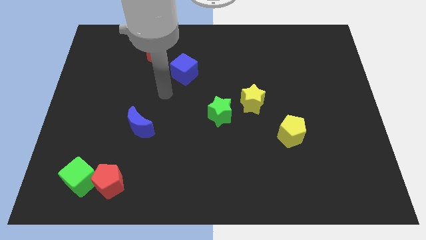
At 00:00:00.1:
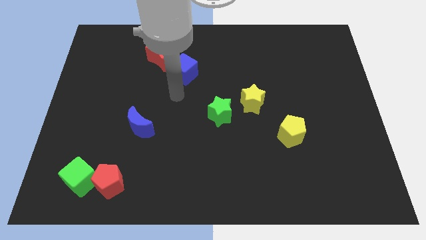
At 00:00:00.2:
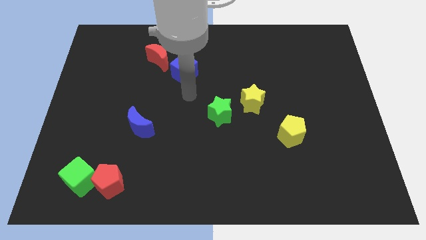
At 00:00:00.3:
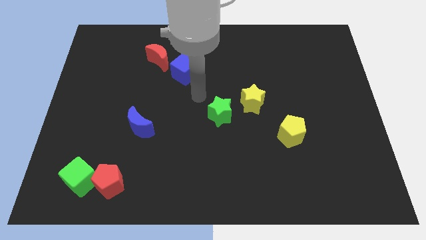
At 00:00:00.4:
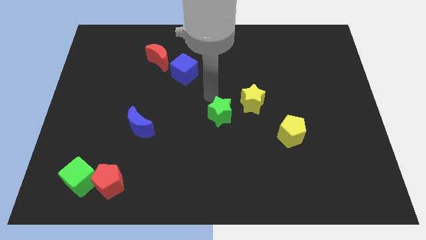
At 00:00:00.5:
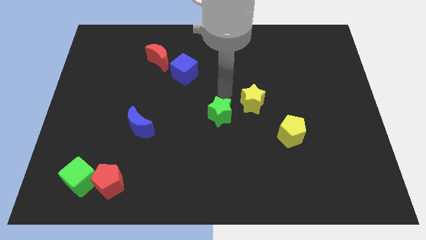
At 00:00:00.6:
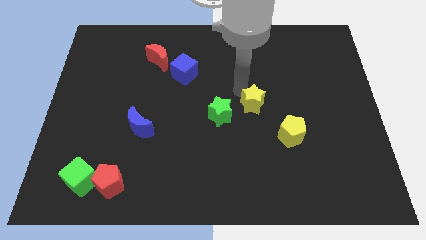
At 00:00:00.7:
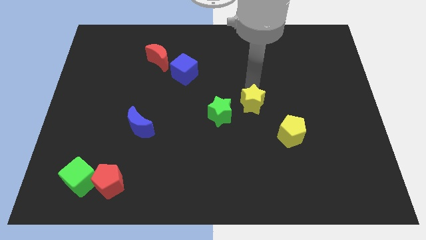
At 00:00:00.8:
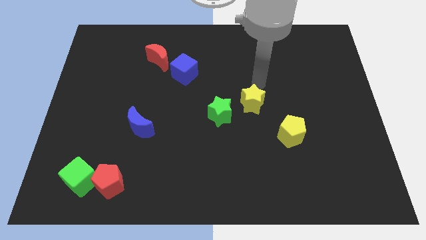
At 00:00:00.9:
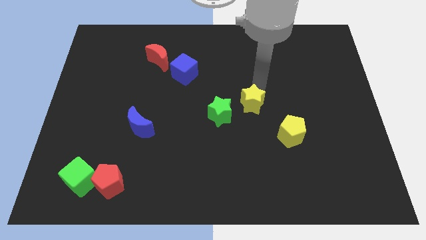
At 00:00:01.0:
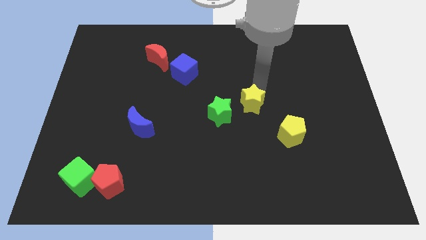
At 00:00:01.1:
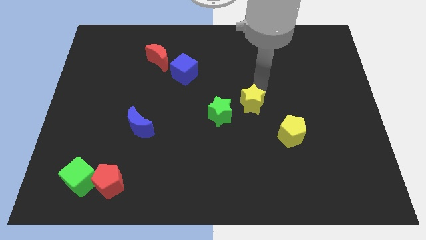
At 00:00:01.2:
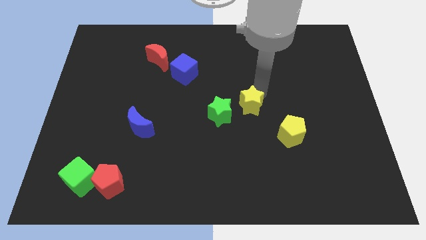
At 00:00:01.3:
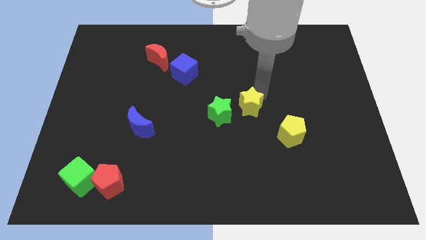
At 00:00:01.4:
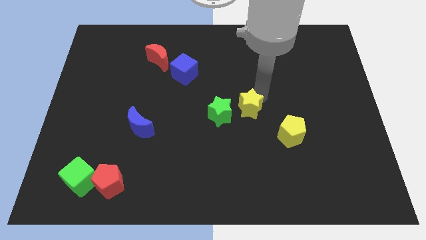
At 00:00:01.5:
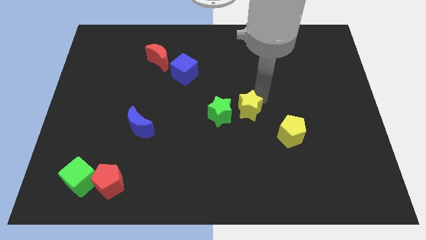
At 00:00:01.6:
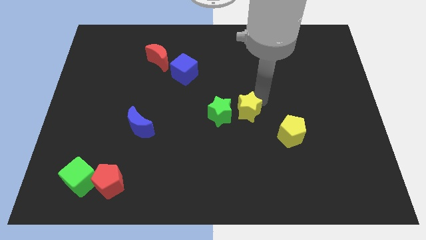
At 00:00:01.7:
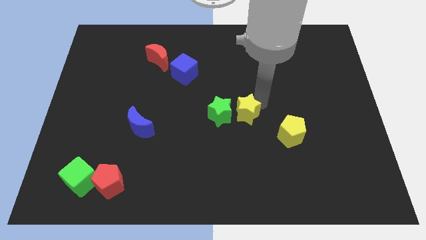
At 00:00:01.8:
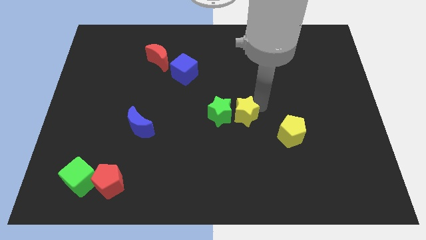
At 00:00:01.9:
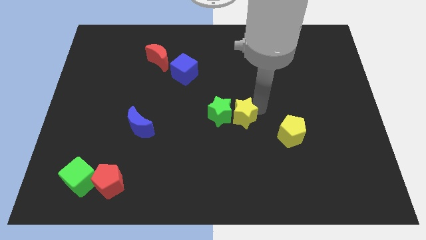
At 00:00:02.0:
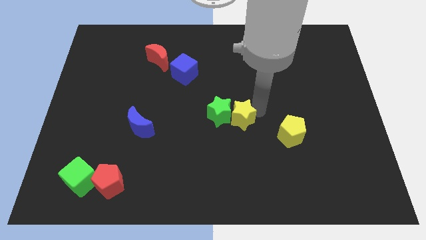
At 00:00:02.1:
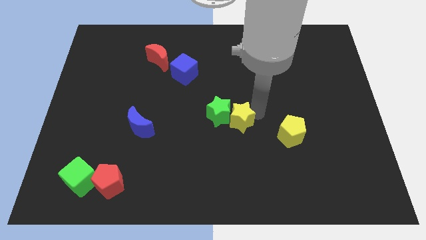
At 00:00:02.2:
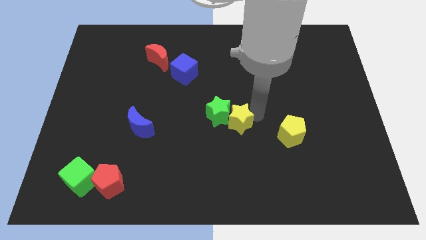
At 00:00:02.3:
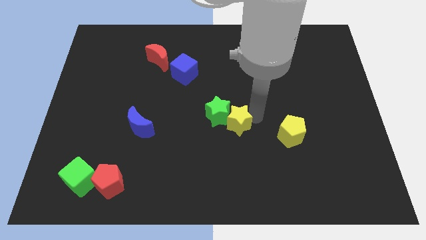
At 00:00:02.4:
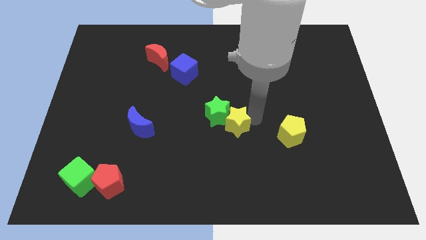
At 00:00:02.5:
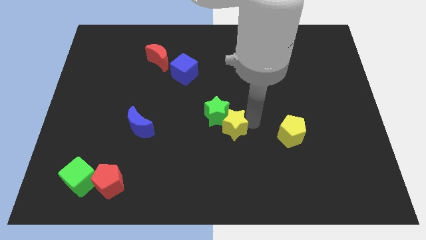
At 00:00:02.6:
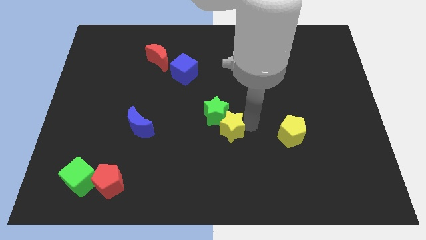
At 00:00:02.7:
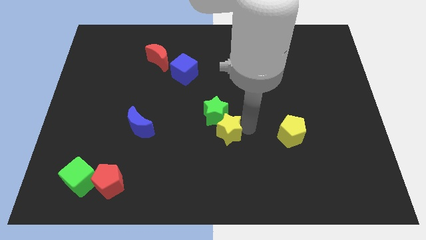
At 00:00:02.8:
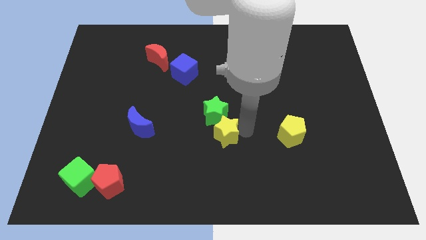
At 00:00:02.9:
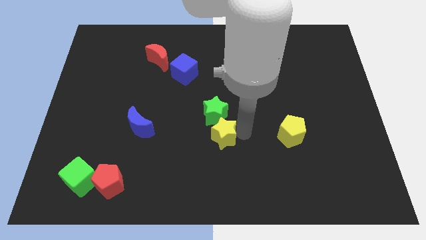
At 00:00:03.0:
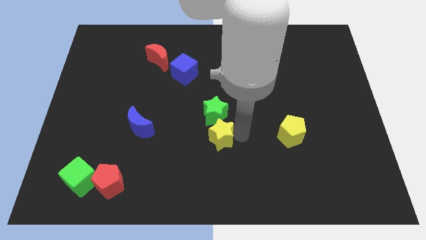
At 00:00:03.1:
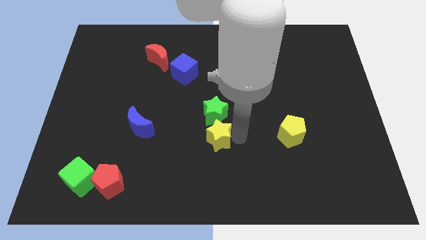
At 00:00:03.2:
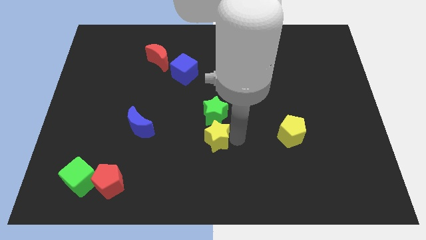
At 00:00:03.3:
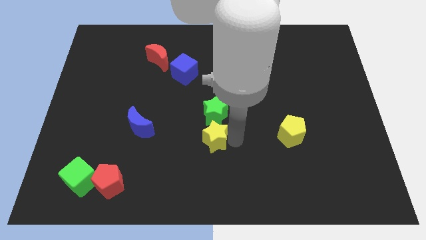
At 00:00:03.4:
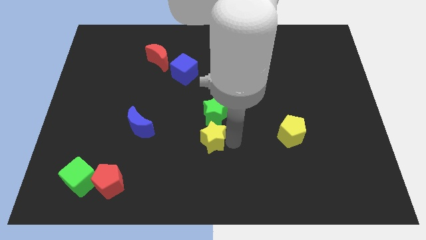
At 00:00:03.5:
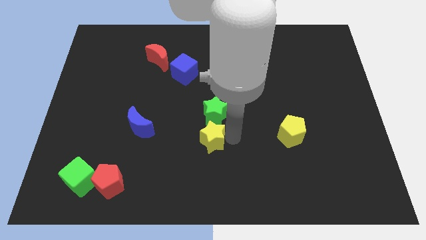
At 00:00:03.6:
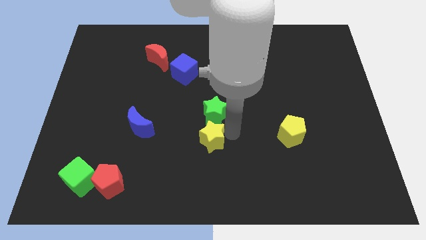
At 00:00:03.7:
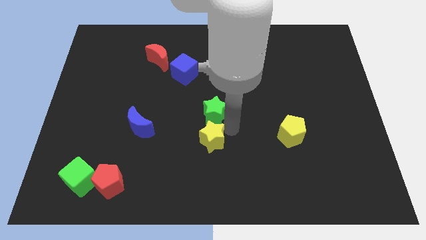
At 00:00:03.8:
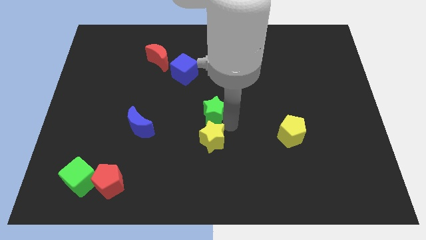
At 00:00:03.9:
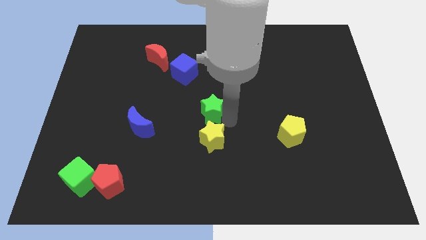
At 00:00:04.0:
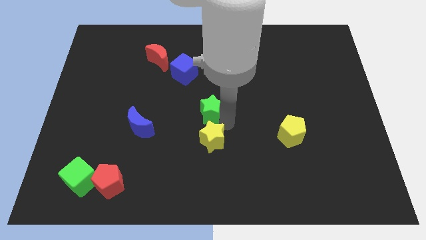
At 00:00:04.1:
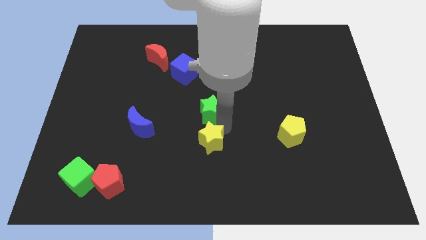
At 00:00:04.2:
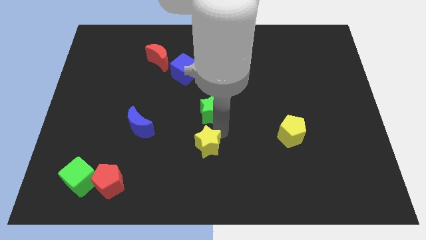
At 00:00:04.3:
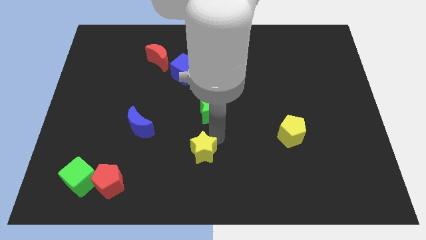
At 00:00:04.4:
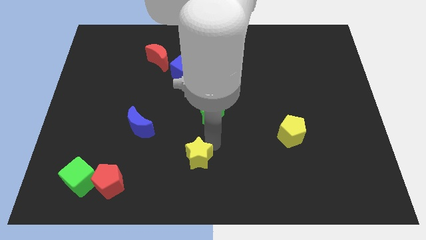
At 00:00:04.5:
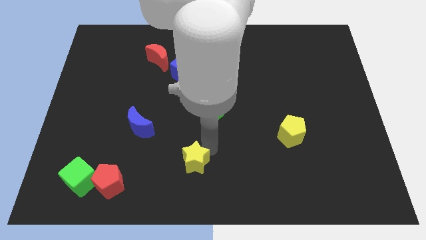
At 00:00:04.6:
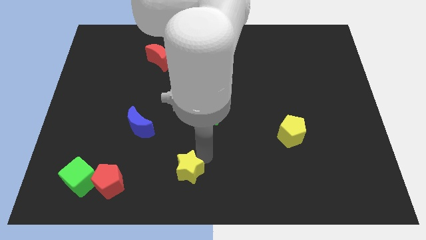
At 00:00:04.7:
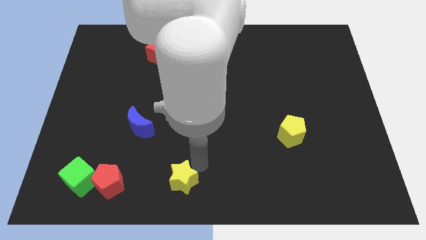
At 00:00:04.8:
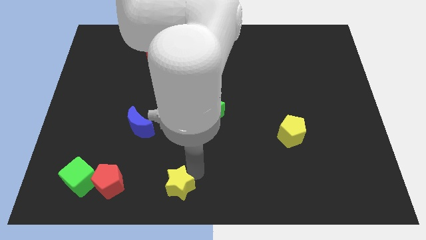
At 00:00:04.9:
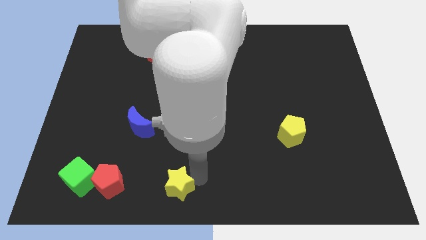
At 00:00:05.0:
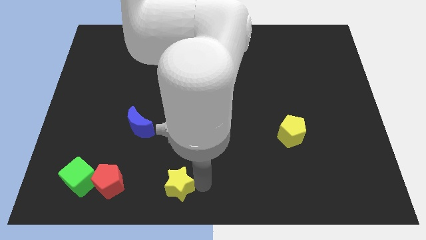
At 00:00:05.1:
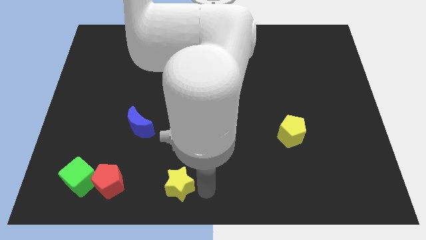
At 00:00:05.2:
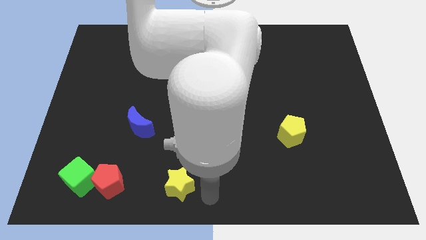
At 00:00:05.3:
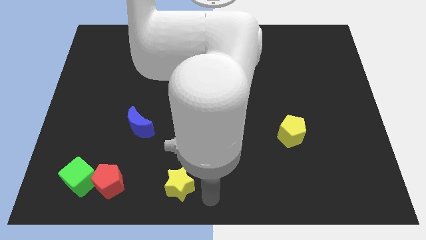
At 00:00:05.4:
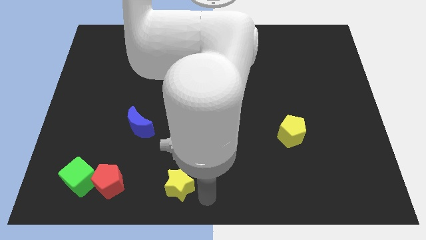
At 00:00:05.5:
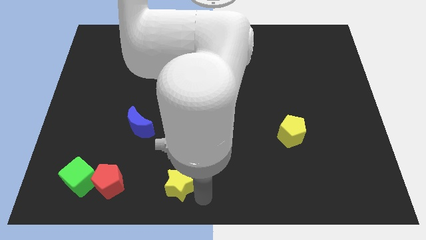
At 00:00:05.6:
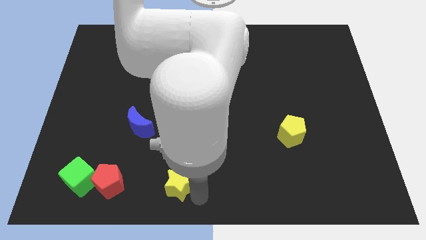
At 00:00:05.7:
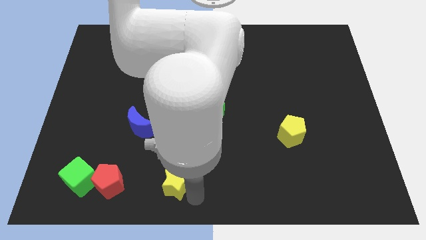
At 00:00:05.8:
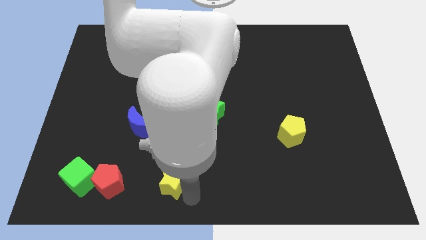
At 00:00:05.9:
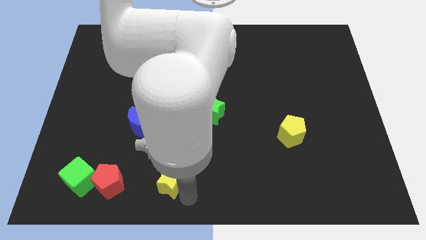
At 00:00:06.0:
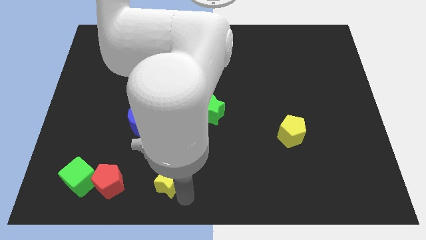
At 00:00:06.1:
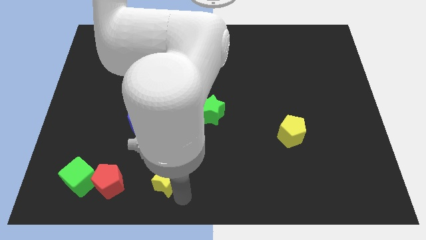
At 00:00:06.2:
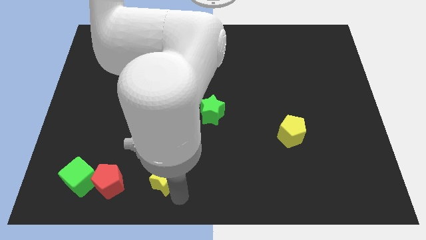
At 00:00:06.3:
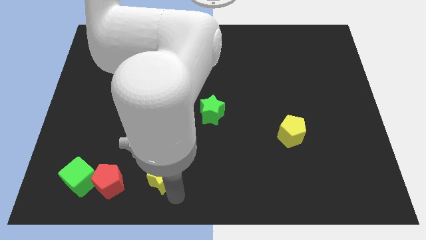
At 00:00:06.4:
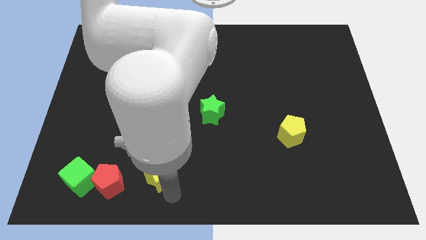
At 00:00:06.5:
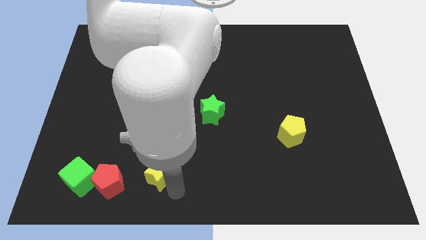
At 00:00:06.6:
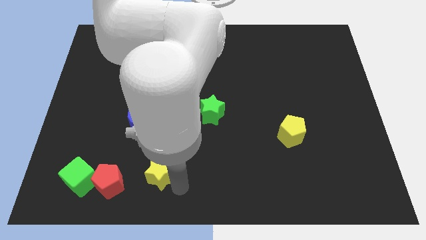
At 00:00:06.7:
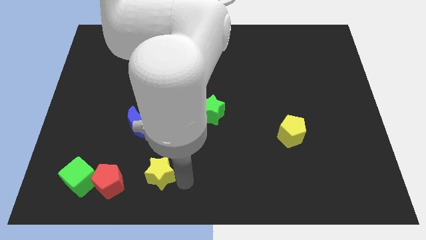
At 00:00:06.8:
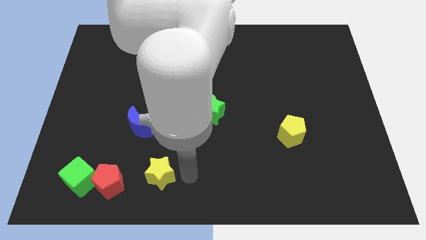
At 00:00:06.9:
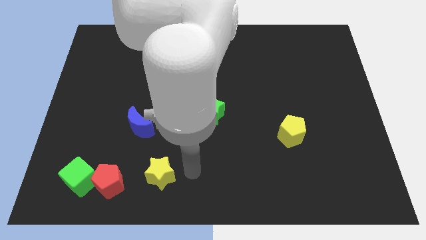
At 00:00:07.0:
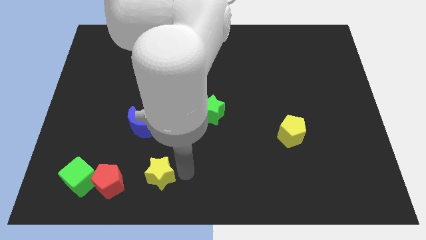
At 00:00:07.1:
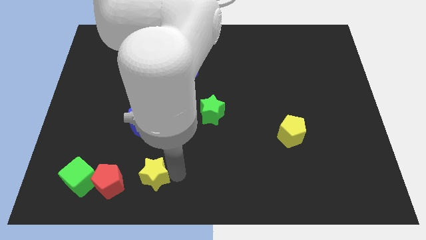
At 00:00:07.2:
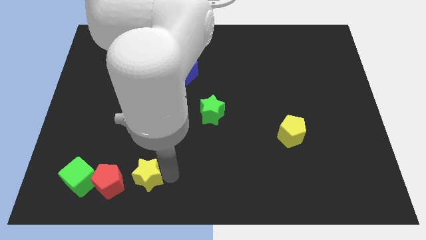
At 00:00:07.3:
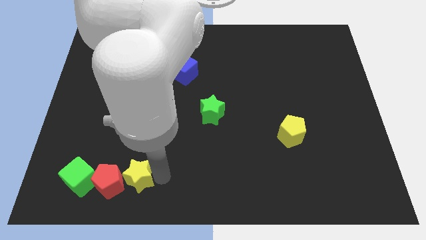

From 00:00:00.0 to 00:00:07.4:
put the yellow star close to the red pentagon
